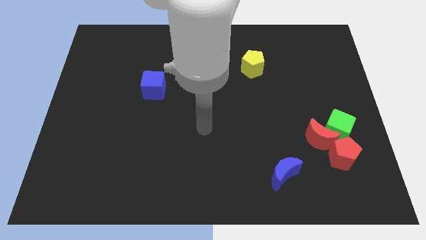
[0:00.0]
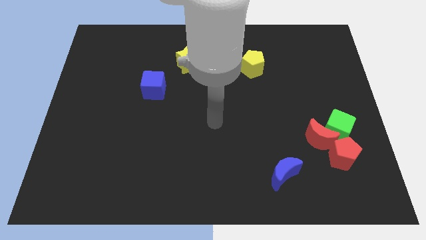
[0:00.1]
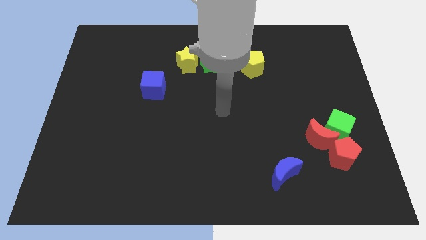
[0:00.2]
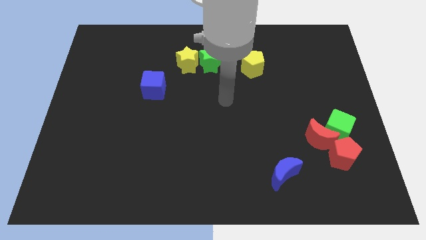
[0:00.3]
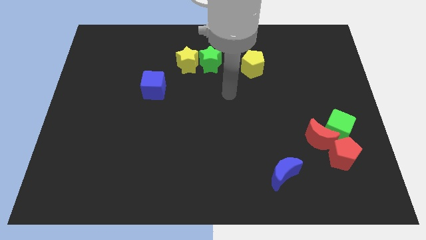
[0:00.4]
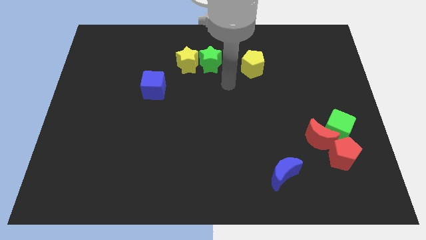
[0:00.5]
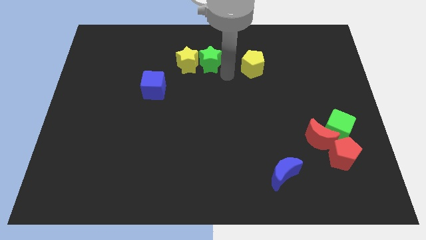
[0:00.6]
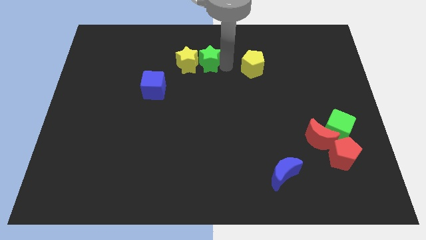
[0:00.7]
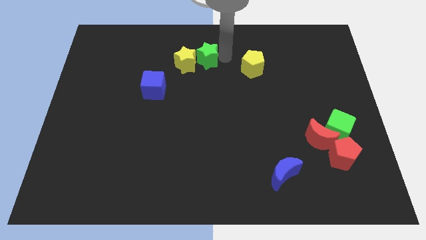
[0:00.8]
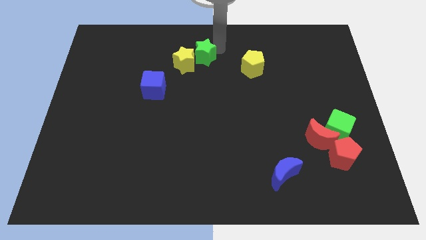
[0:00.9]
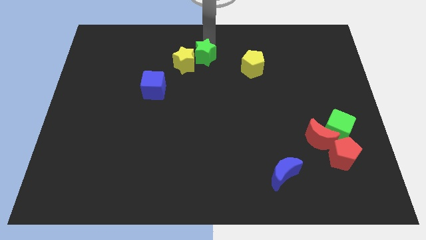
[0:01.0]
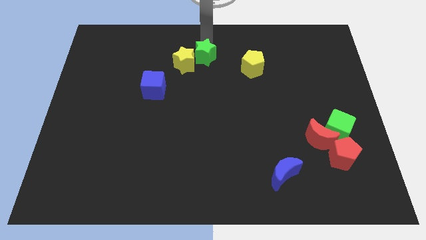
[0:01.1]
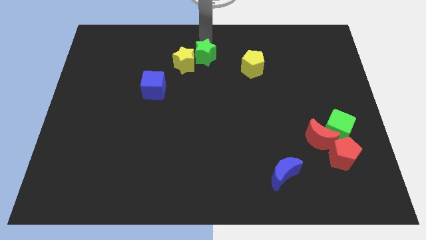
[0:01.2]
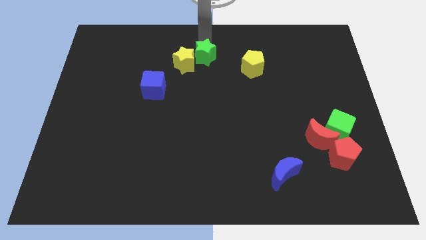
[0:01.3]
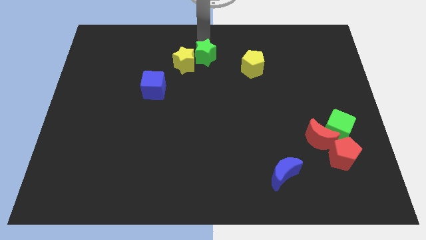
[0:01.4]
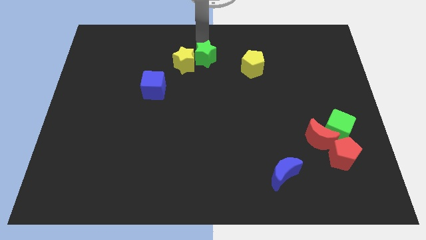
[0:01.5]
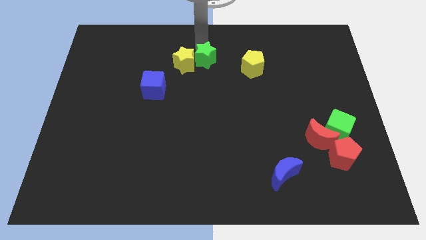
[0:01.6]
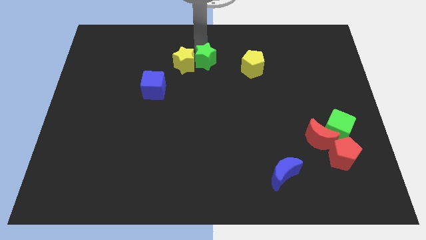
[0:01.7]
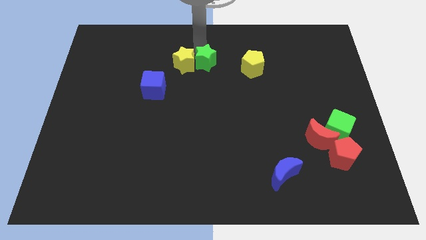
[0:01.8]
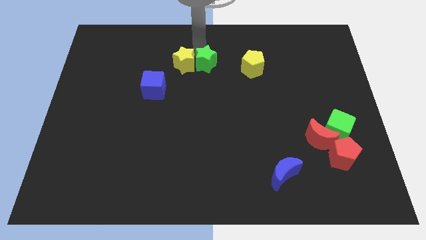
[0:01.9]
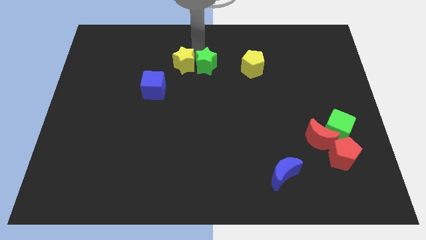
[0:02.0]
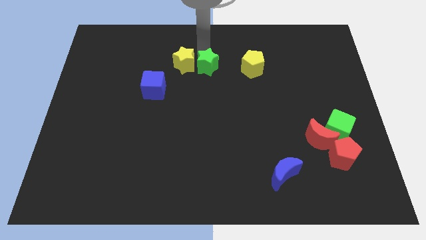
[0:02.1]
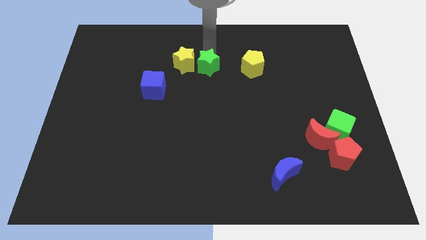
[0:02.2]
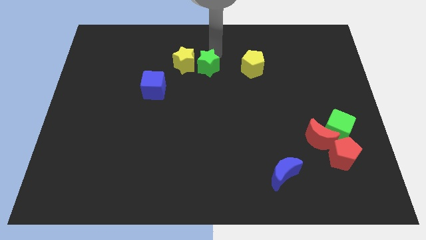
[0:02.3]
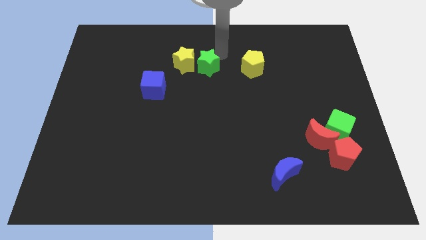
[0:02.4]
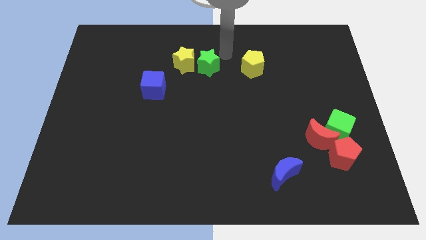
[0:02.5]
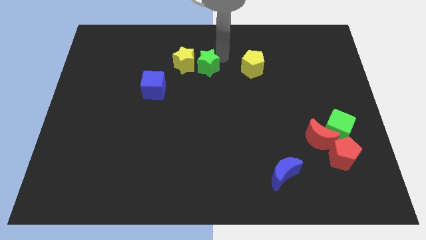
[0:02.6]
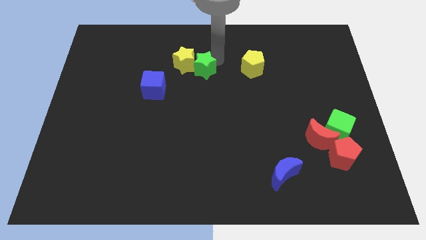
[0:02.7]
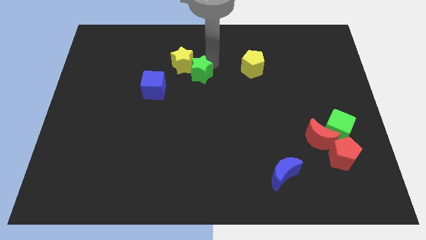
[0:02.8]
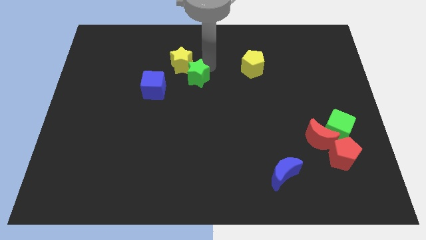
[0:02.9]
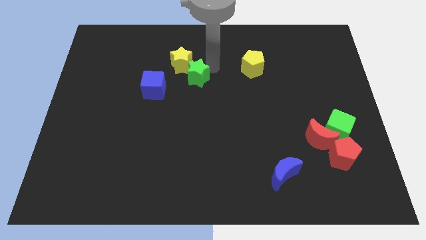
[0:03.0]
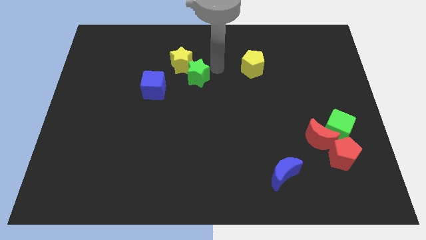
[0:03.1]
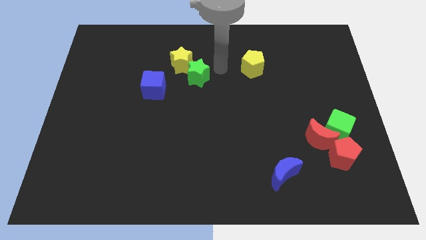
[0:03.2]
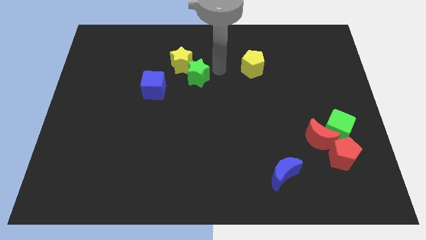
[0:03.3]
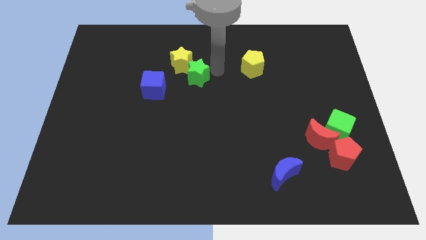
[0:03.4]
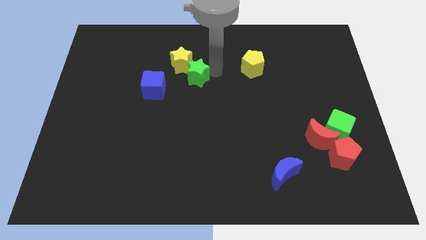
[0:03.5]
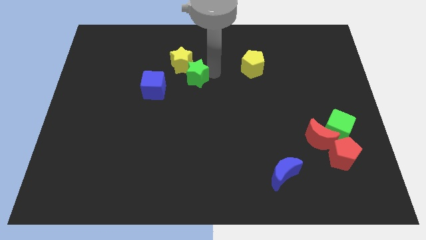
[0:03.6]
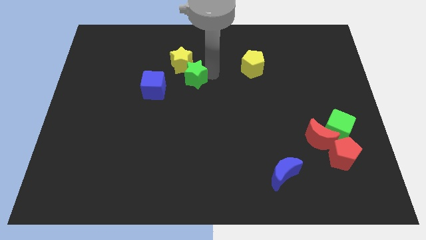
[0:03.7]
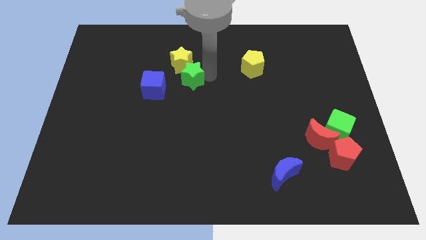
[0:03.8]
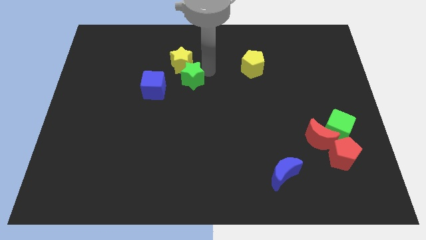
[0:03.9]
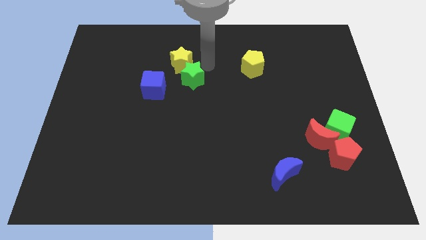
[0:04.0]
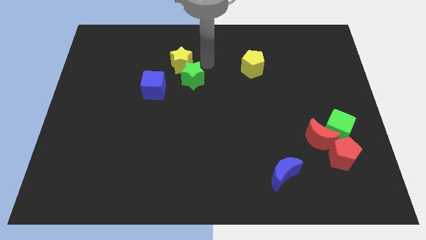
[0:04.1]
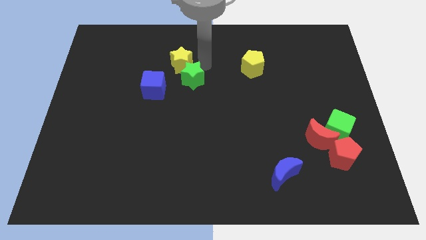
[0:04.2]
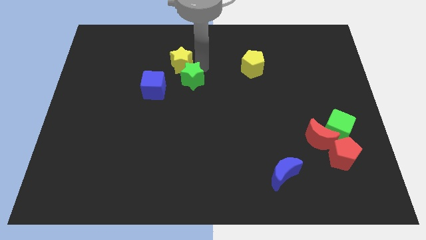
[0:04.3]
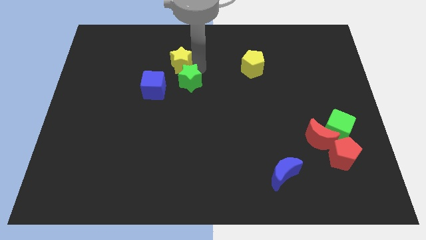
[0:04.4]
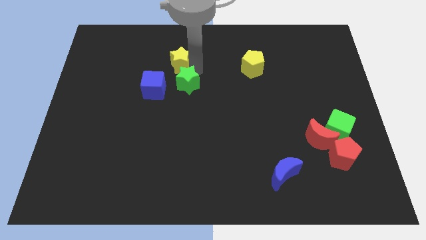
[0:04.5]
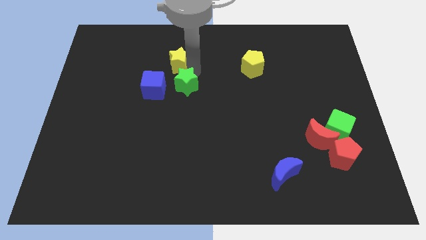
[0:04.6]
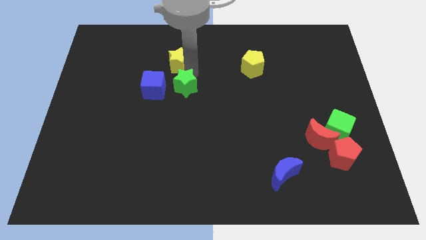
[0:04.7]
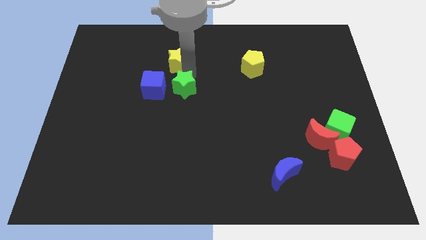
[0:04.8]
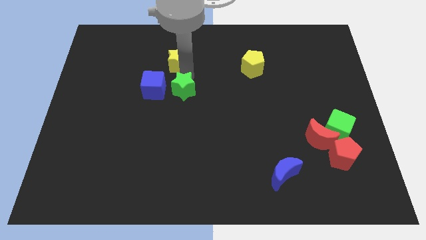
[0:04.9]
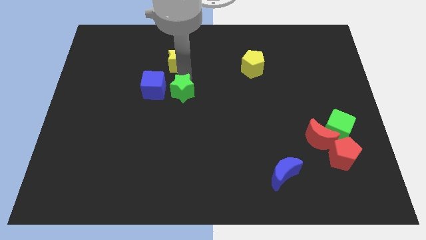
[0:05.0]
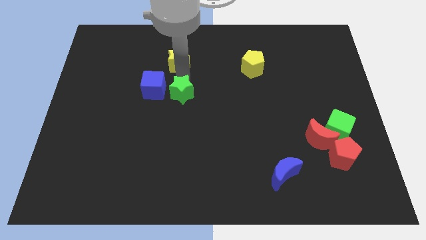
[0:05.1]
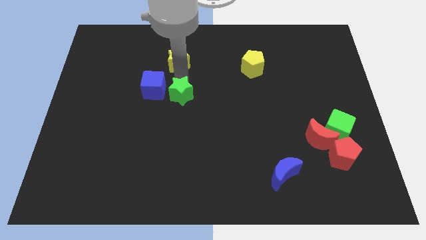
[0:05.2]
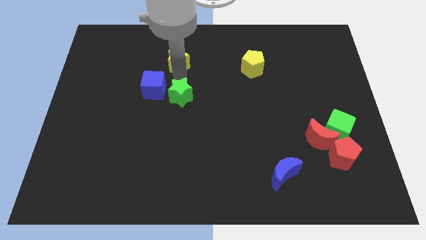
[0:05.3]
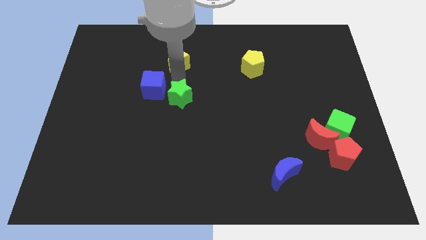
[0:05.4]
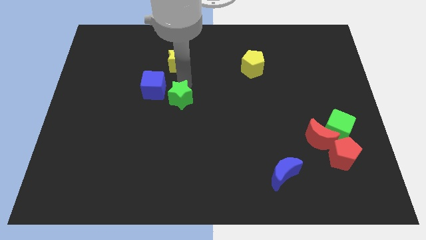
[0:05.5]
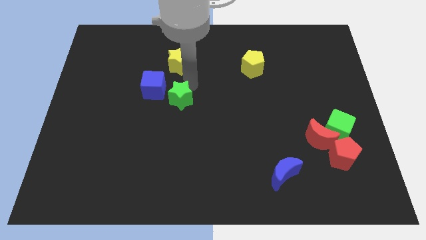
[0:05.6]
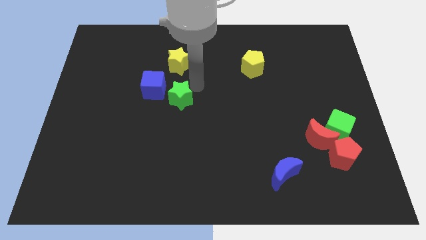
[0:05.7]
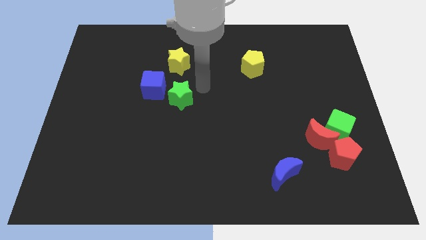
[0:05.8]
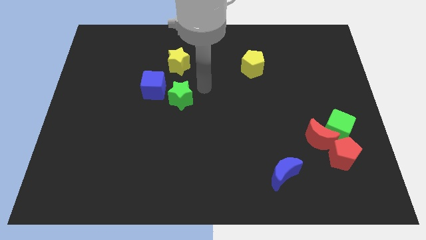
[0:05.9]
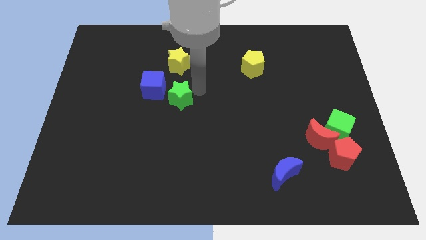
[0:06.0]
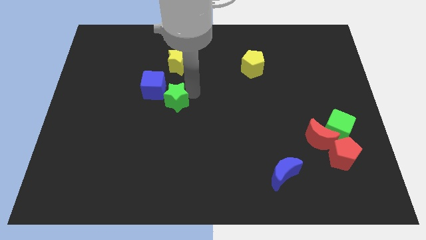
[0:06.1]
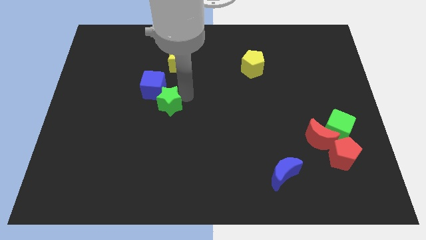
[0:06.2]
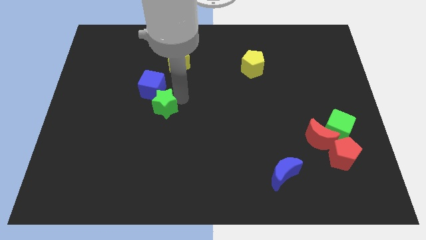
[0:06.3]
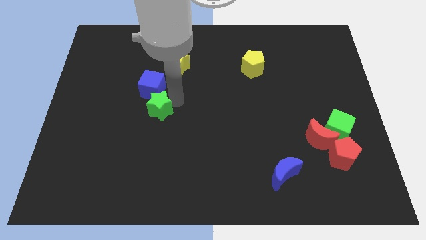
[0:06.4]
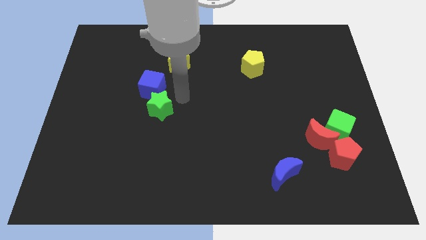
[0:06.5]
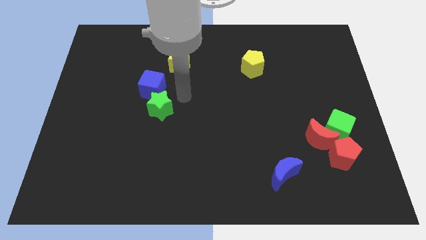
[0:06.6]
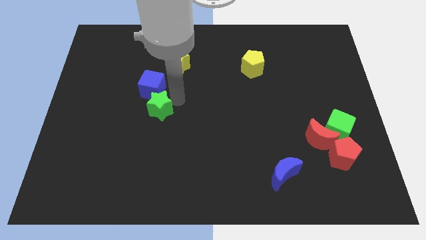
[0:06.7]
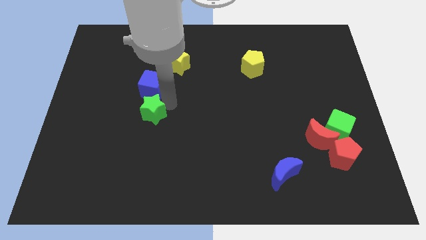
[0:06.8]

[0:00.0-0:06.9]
push the green star downwards and left diagonally

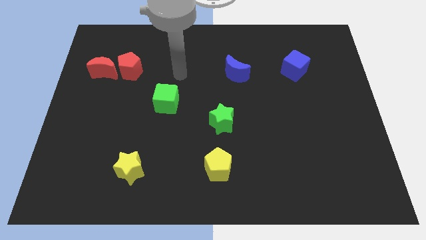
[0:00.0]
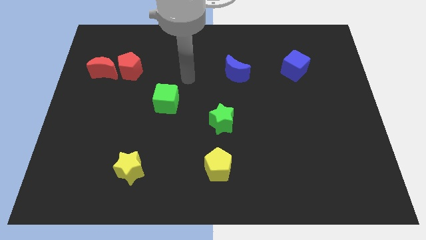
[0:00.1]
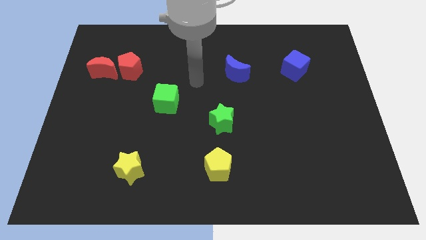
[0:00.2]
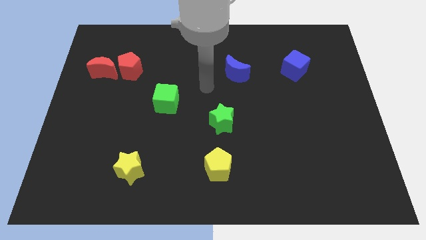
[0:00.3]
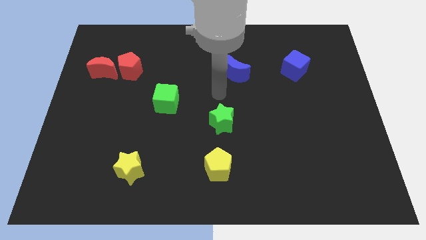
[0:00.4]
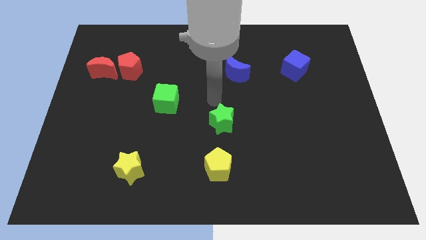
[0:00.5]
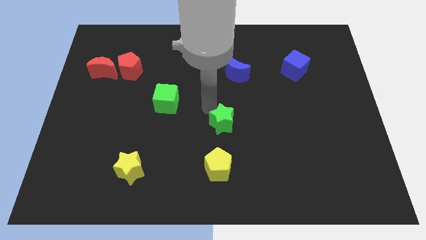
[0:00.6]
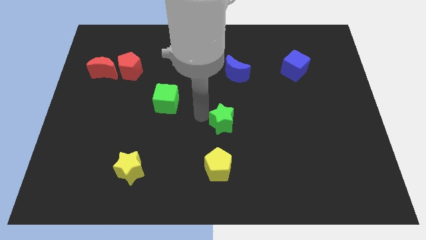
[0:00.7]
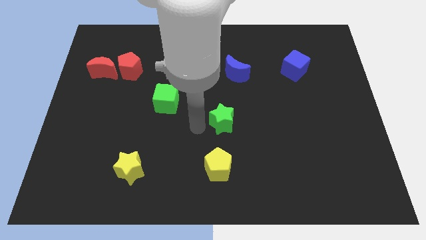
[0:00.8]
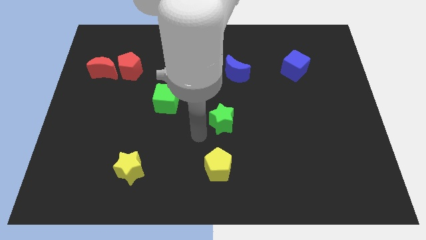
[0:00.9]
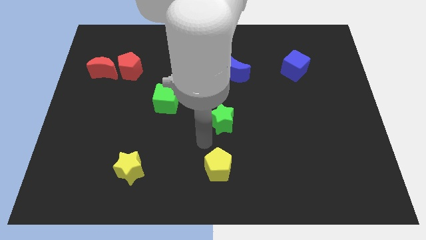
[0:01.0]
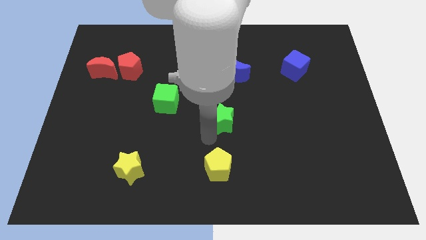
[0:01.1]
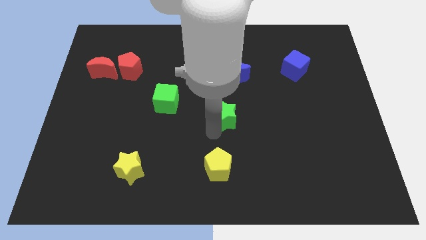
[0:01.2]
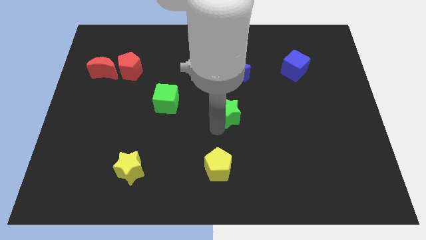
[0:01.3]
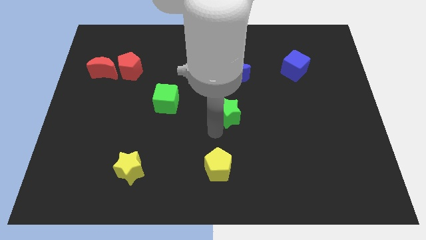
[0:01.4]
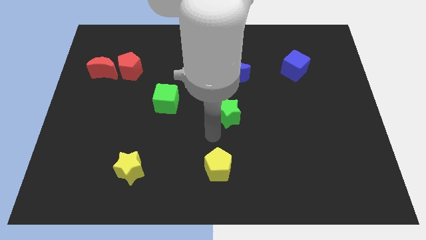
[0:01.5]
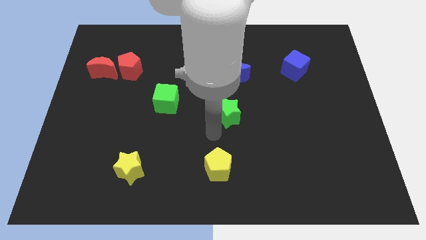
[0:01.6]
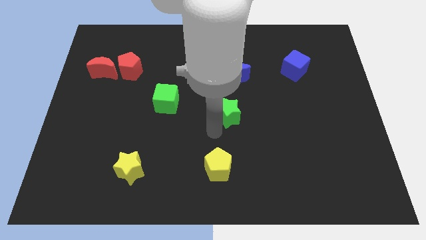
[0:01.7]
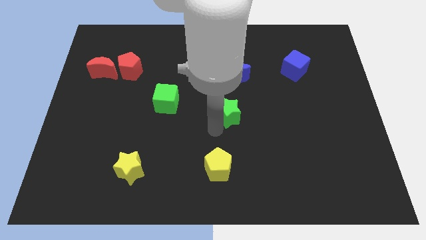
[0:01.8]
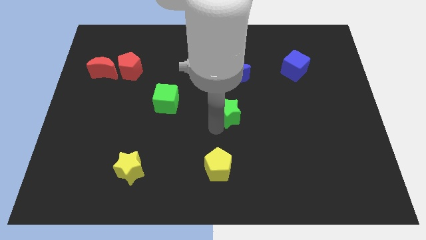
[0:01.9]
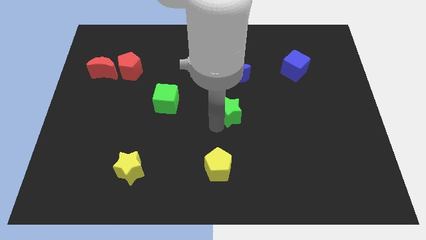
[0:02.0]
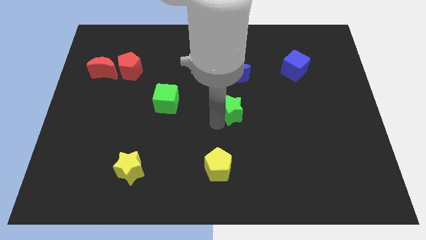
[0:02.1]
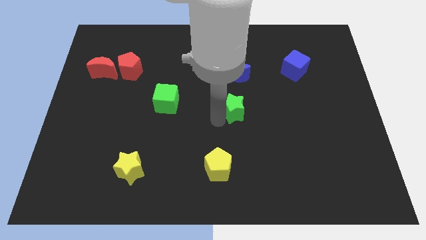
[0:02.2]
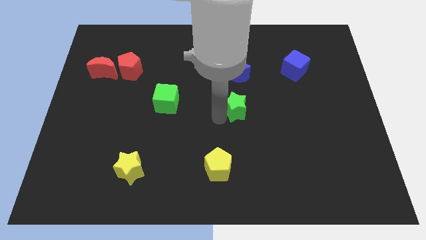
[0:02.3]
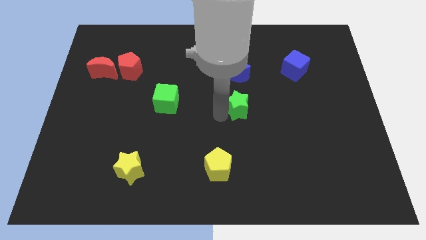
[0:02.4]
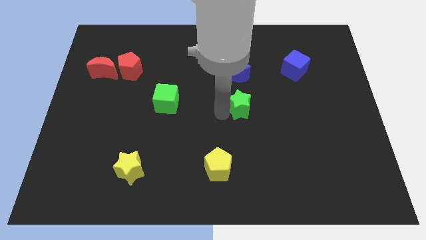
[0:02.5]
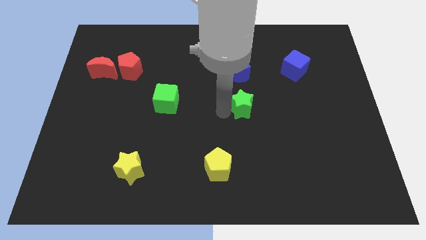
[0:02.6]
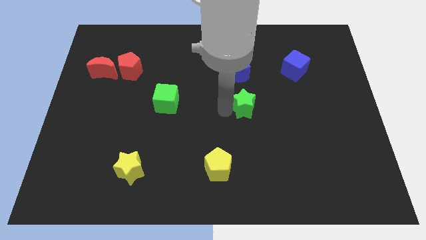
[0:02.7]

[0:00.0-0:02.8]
push the green star somewhat up and then to the right
